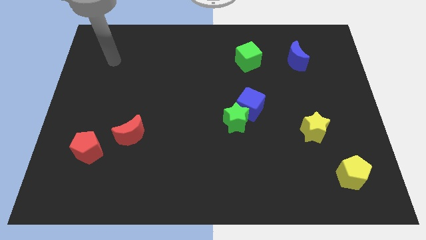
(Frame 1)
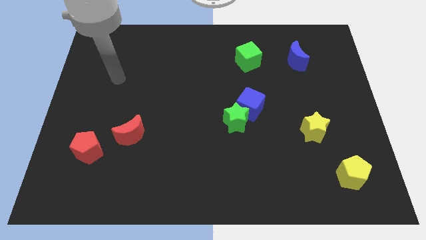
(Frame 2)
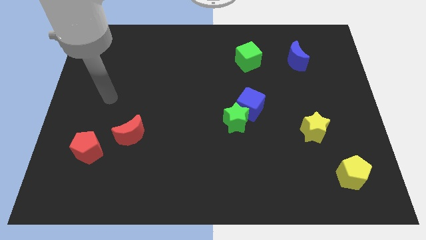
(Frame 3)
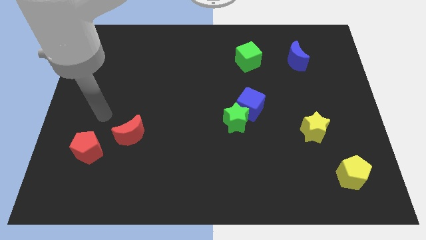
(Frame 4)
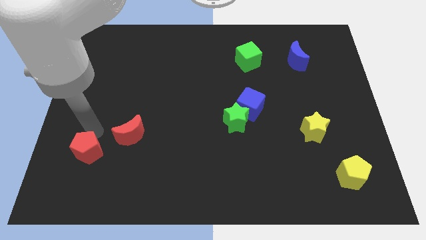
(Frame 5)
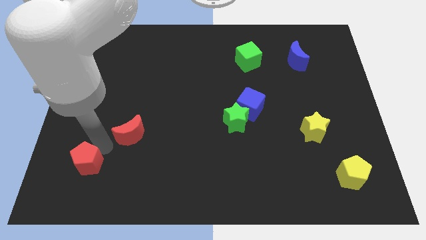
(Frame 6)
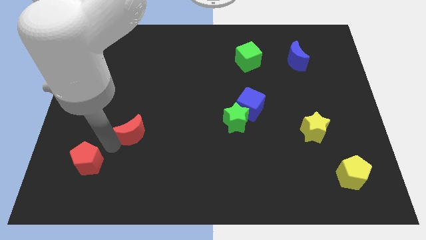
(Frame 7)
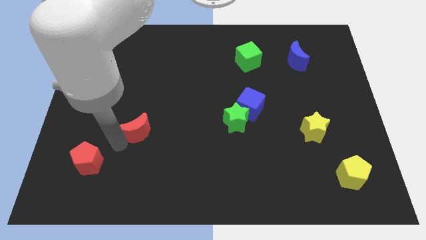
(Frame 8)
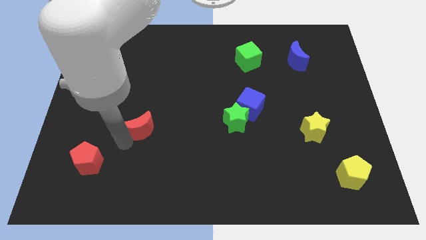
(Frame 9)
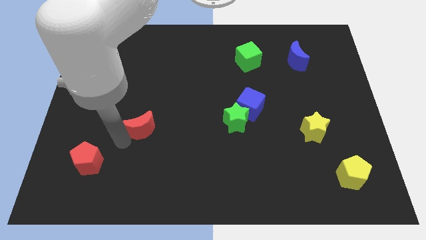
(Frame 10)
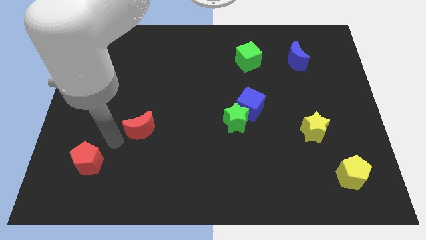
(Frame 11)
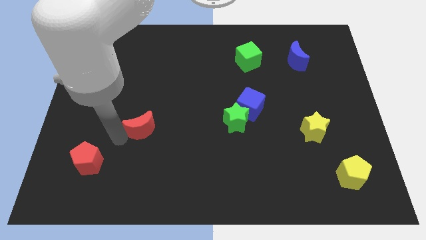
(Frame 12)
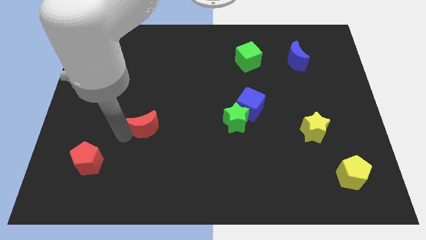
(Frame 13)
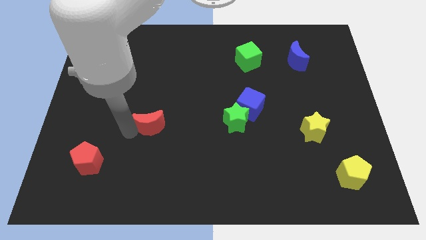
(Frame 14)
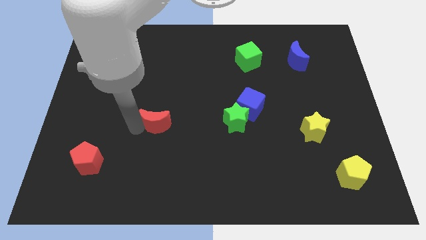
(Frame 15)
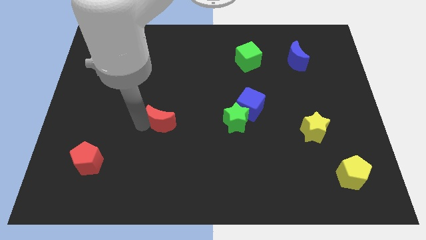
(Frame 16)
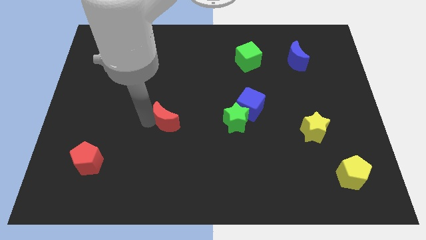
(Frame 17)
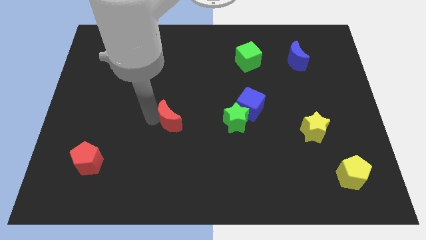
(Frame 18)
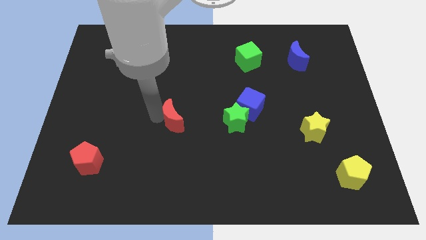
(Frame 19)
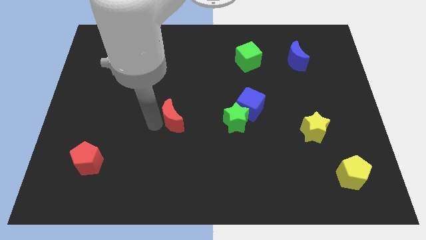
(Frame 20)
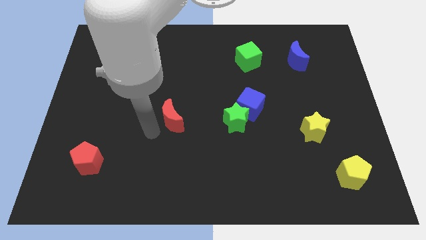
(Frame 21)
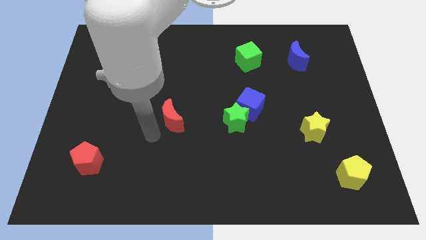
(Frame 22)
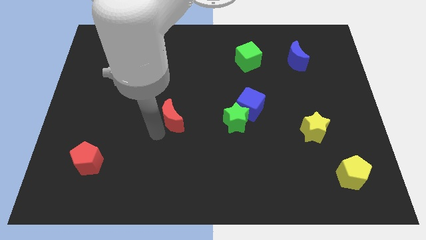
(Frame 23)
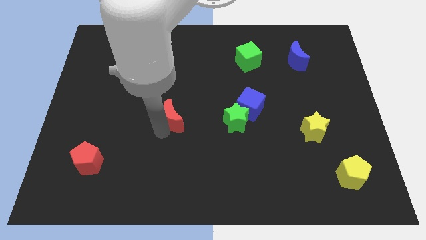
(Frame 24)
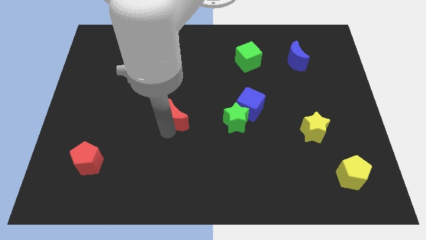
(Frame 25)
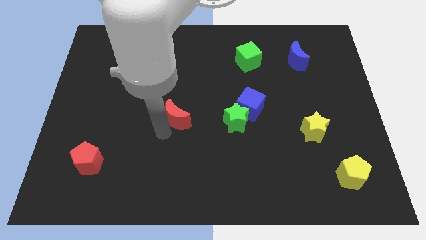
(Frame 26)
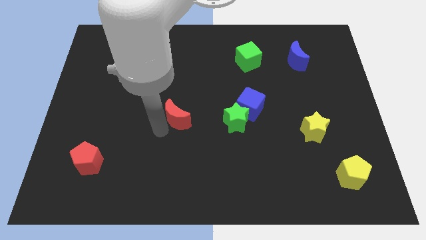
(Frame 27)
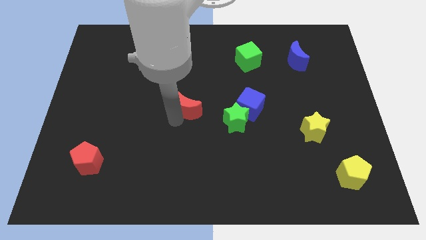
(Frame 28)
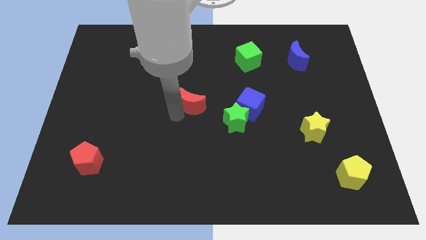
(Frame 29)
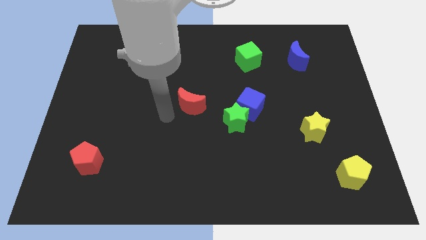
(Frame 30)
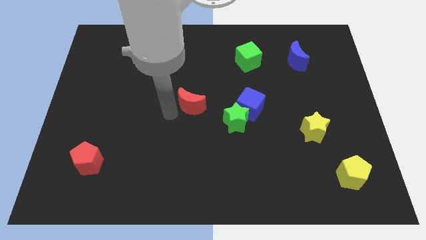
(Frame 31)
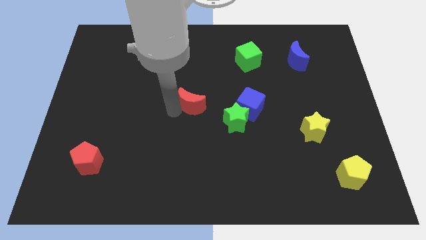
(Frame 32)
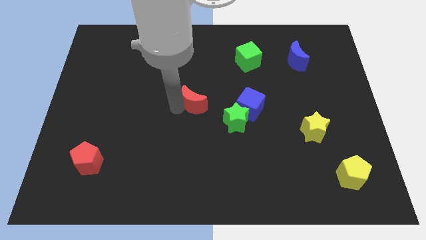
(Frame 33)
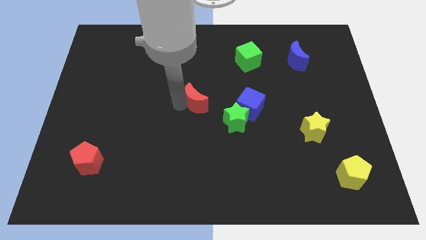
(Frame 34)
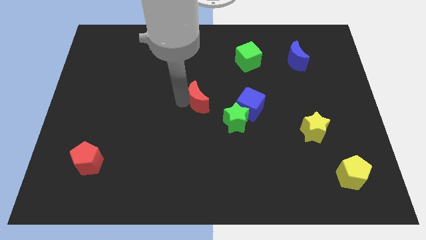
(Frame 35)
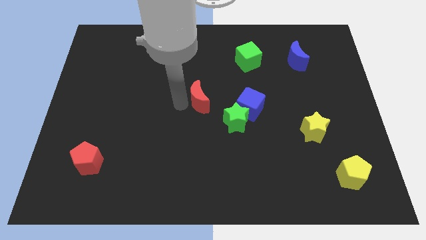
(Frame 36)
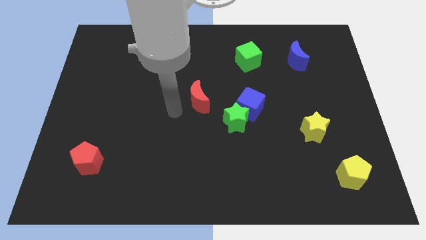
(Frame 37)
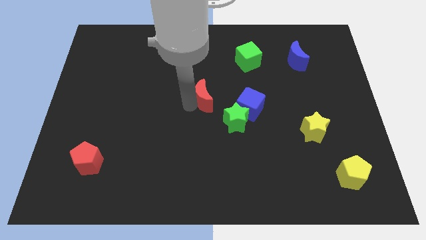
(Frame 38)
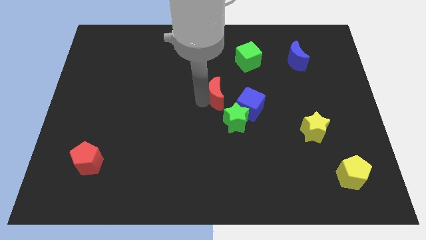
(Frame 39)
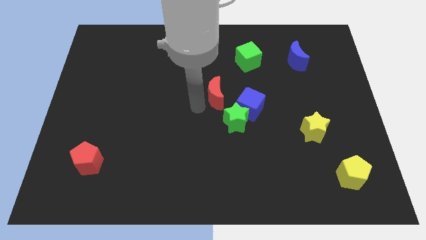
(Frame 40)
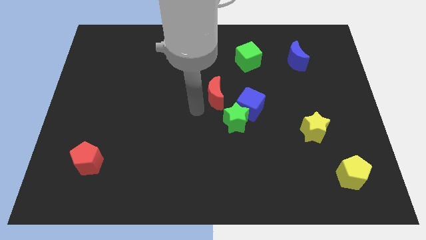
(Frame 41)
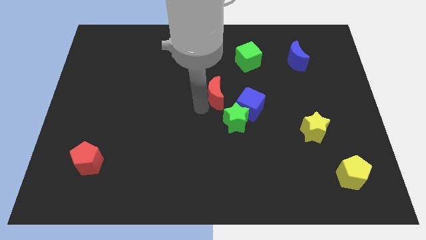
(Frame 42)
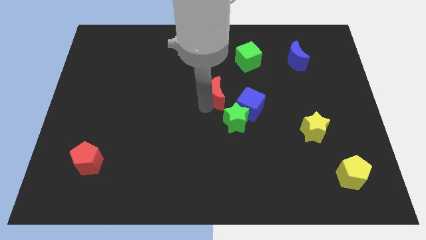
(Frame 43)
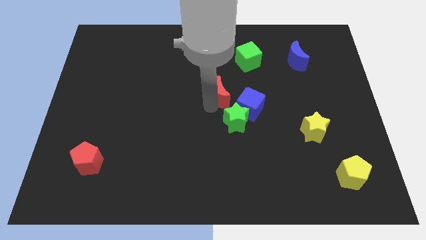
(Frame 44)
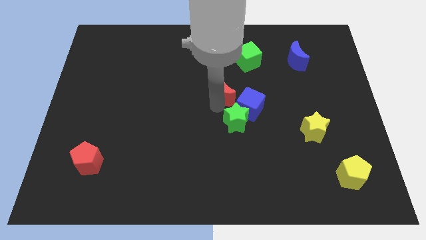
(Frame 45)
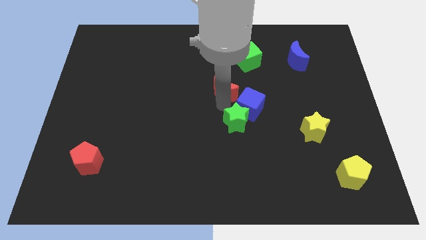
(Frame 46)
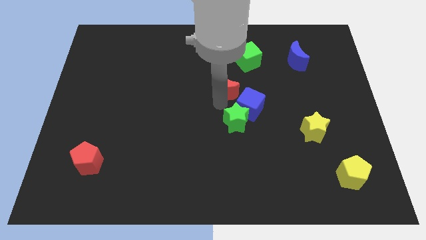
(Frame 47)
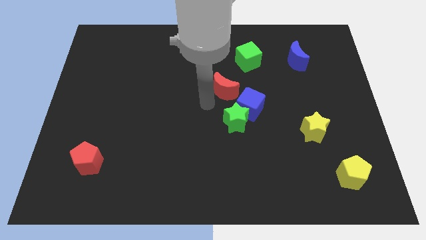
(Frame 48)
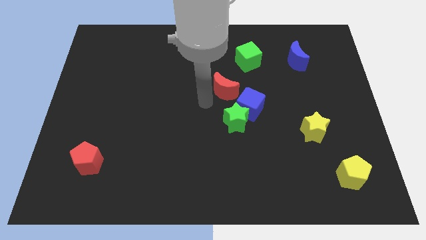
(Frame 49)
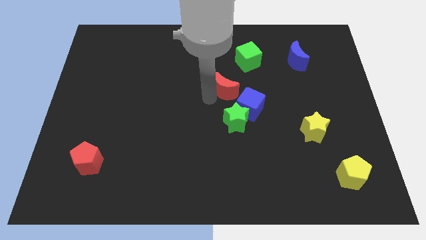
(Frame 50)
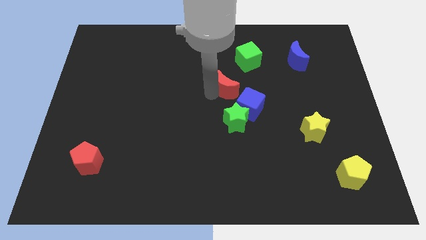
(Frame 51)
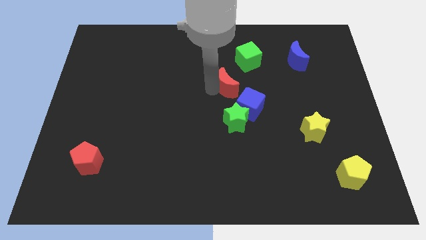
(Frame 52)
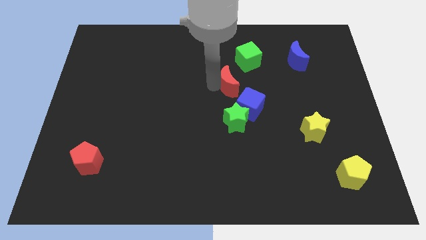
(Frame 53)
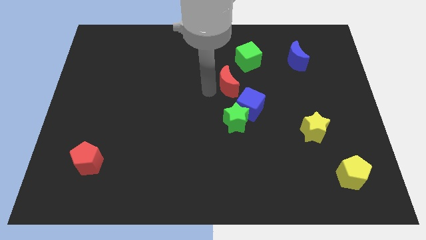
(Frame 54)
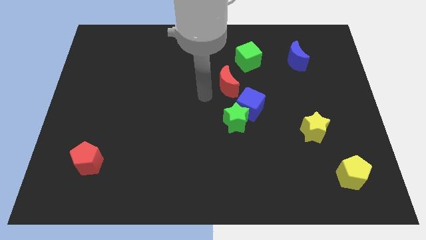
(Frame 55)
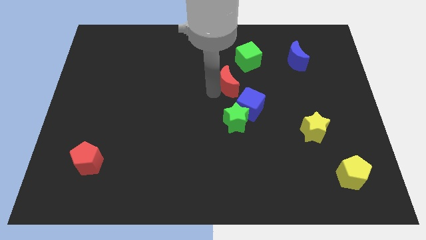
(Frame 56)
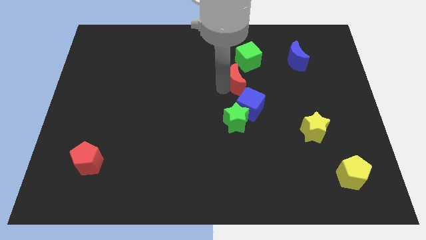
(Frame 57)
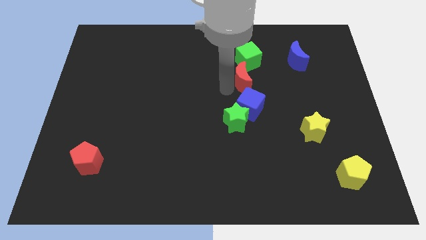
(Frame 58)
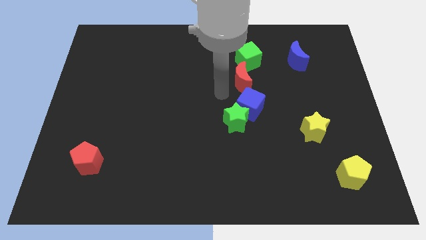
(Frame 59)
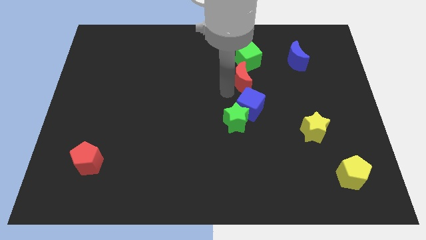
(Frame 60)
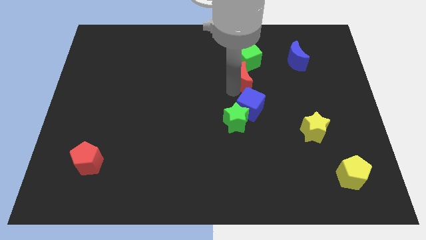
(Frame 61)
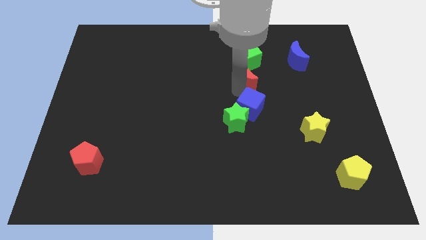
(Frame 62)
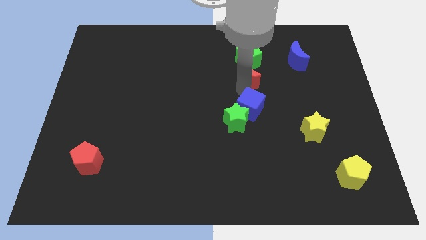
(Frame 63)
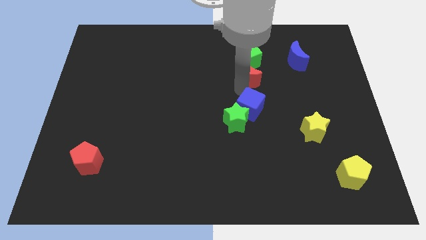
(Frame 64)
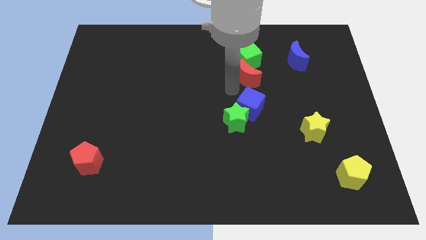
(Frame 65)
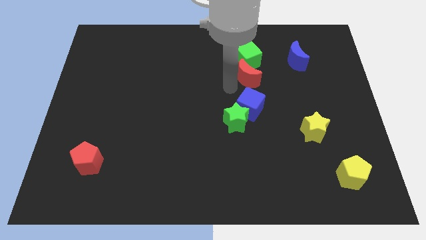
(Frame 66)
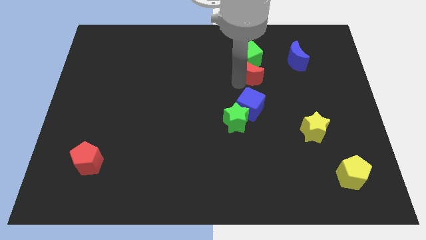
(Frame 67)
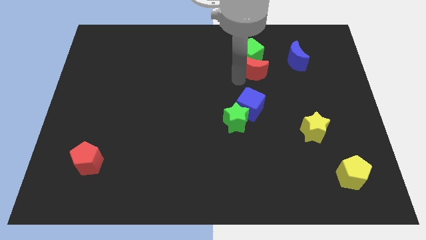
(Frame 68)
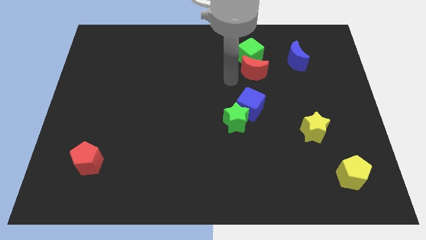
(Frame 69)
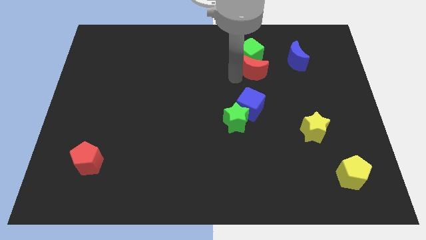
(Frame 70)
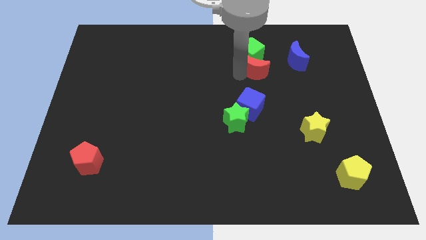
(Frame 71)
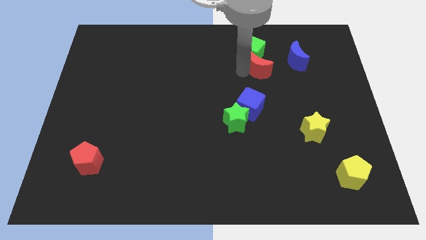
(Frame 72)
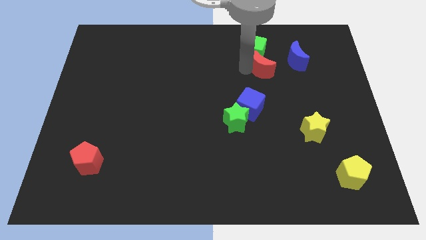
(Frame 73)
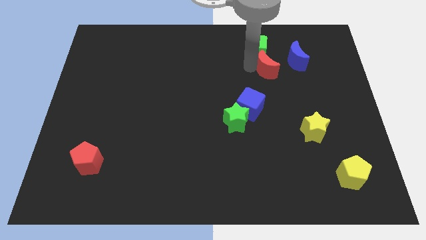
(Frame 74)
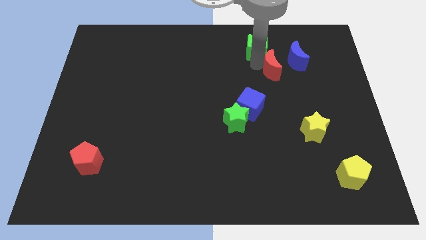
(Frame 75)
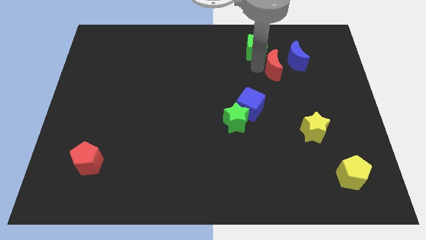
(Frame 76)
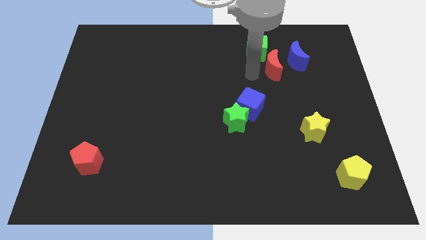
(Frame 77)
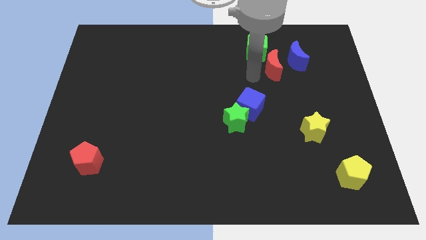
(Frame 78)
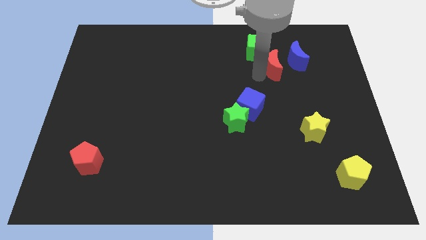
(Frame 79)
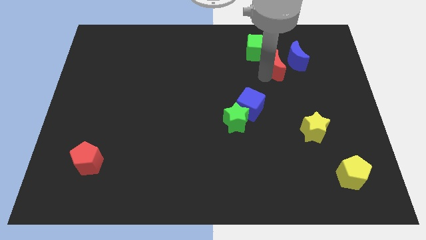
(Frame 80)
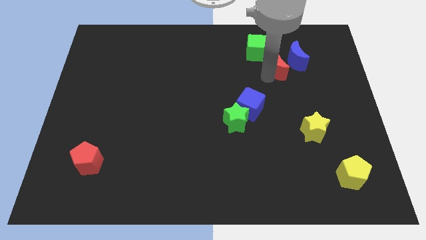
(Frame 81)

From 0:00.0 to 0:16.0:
move the red moon towards the blue moon
